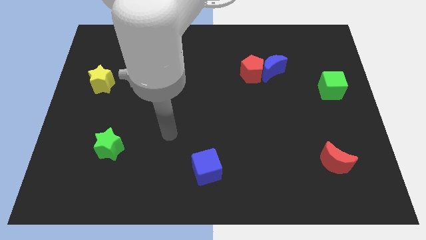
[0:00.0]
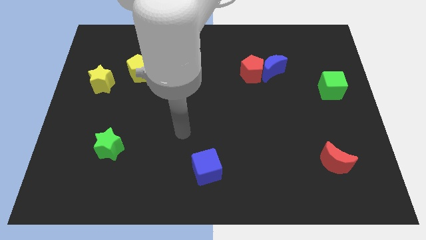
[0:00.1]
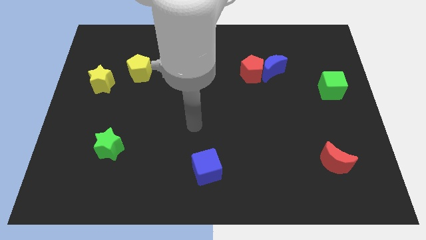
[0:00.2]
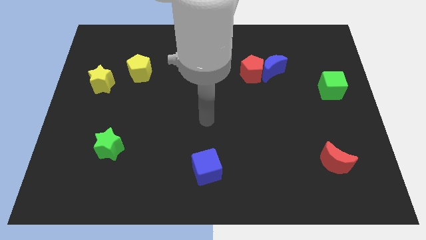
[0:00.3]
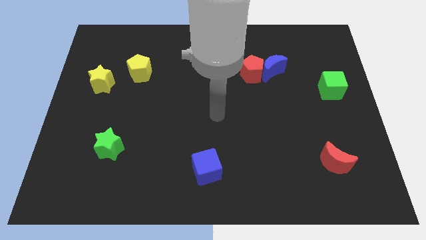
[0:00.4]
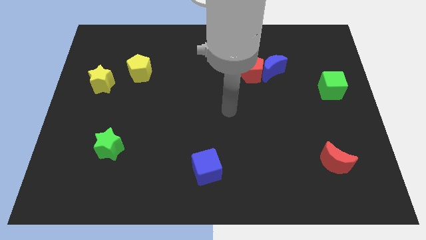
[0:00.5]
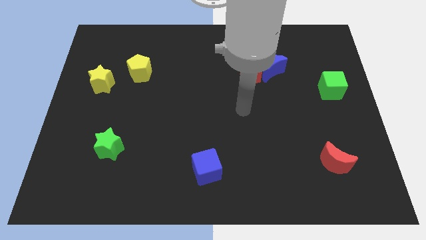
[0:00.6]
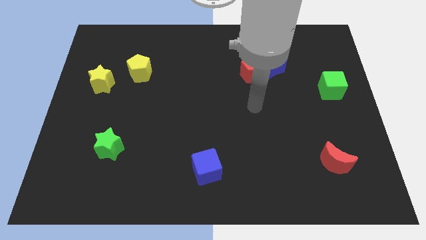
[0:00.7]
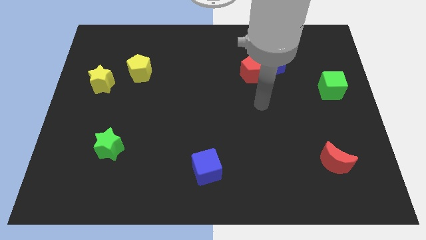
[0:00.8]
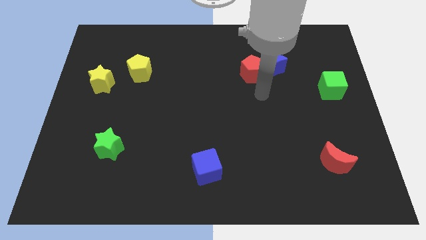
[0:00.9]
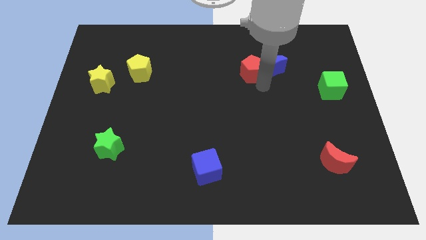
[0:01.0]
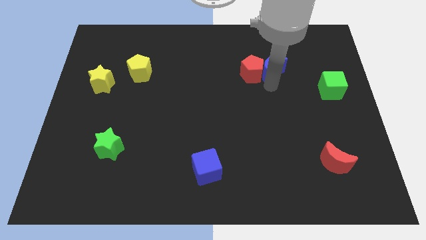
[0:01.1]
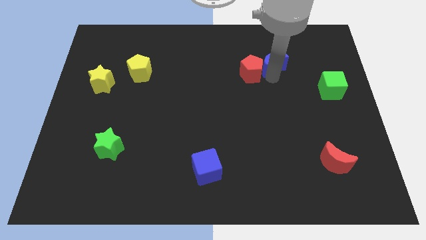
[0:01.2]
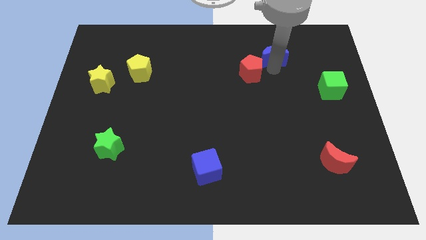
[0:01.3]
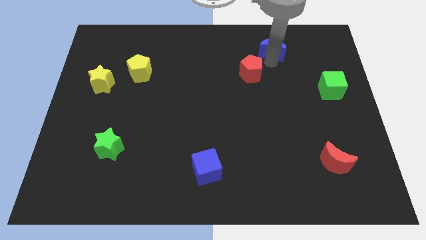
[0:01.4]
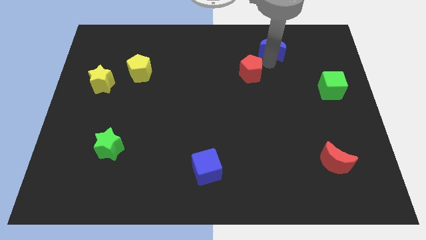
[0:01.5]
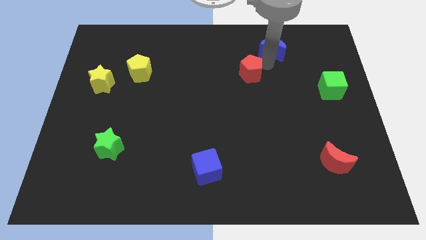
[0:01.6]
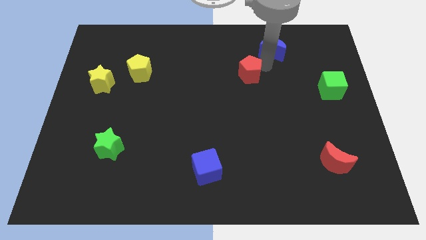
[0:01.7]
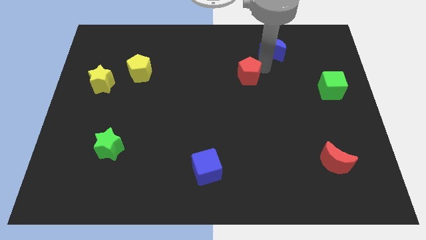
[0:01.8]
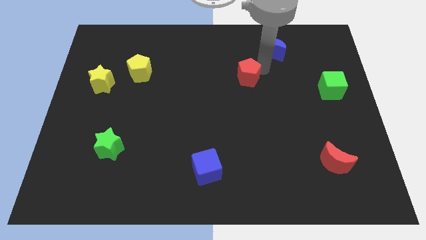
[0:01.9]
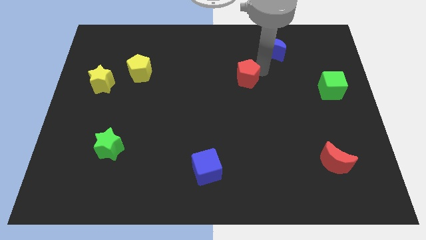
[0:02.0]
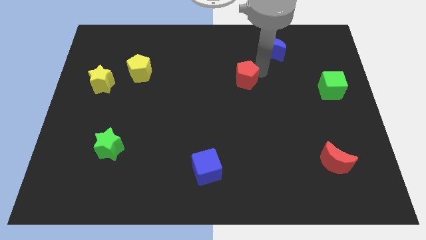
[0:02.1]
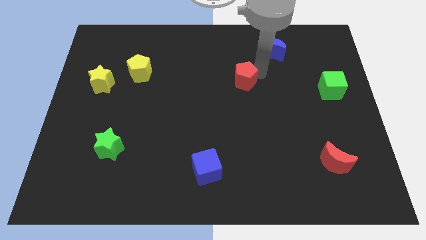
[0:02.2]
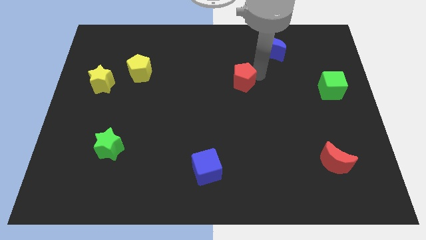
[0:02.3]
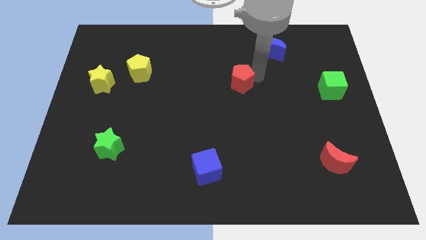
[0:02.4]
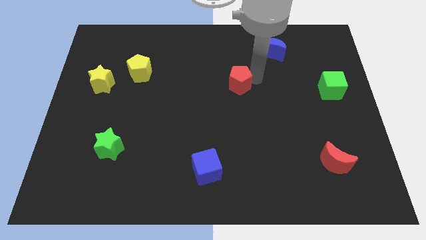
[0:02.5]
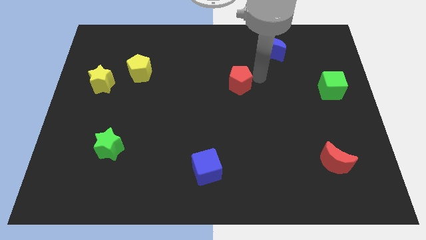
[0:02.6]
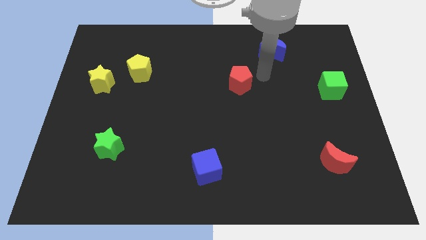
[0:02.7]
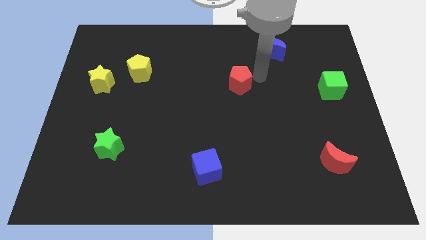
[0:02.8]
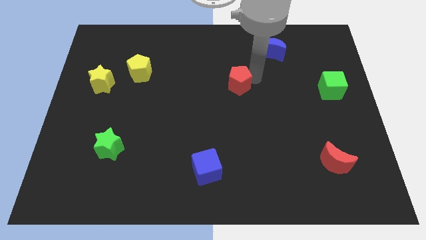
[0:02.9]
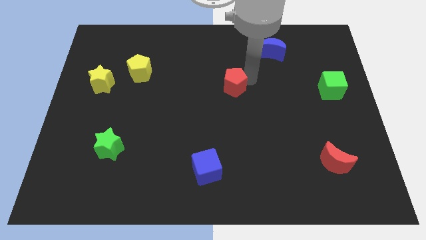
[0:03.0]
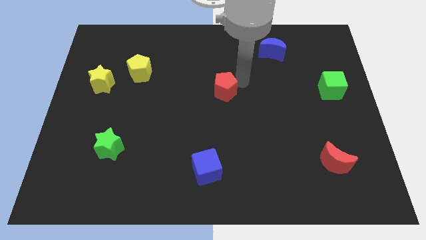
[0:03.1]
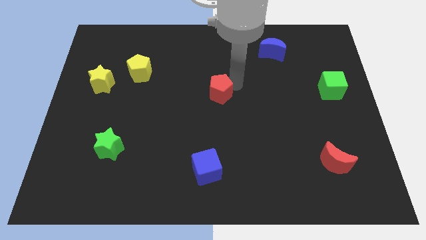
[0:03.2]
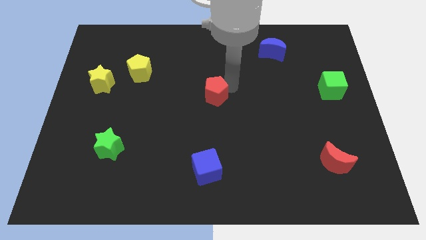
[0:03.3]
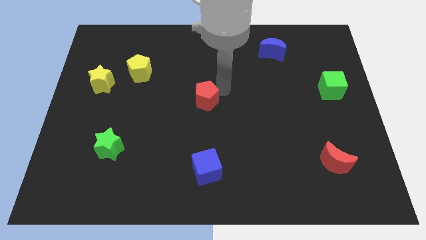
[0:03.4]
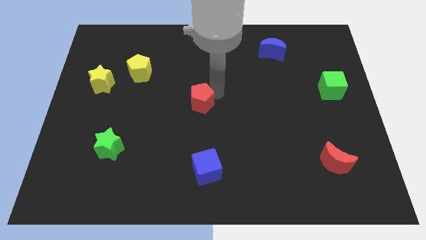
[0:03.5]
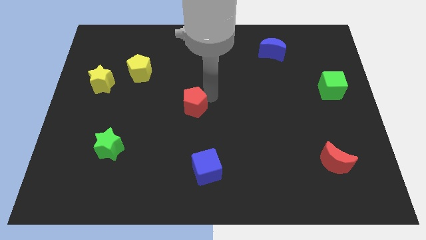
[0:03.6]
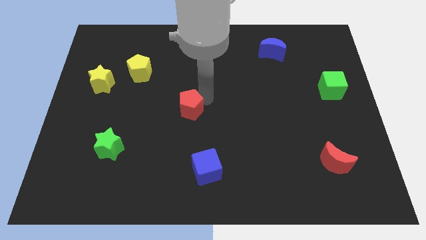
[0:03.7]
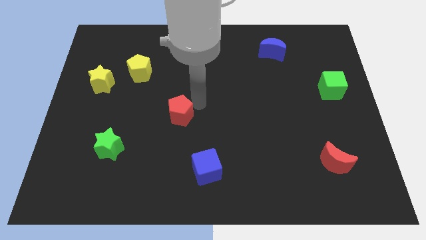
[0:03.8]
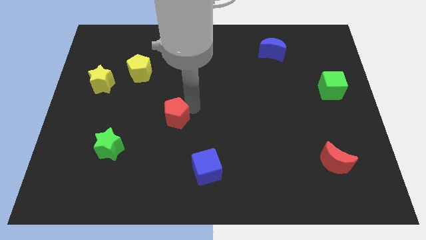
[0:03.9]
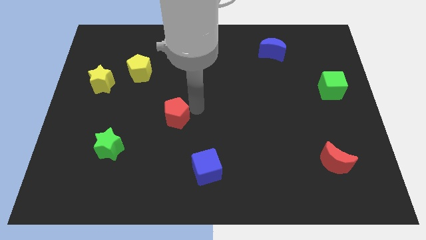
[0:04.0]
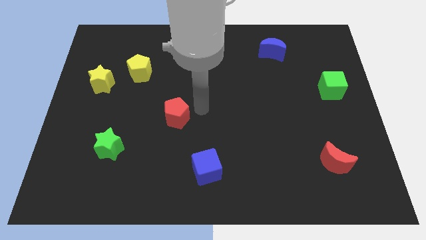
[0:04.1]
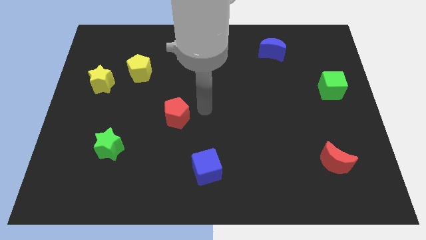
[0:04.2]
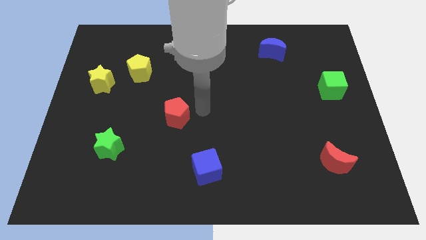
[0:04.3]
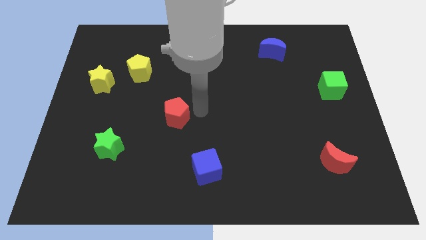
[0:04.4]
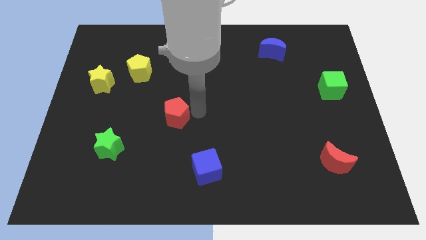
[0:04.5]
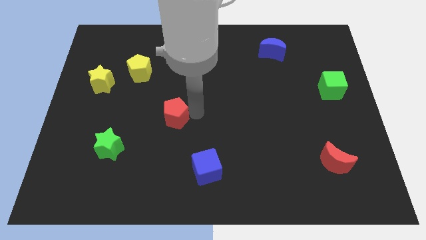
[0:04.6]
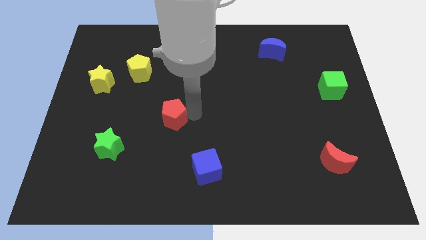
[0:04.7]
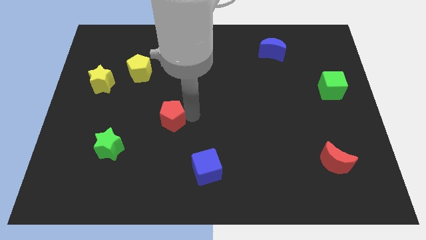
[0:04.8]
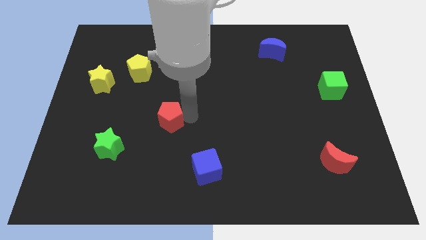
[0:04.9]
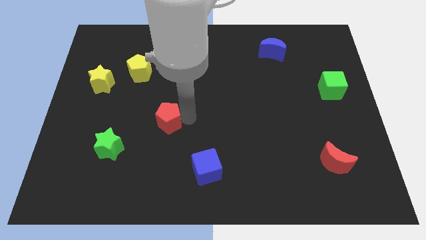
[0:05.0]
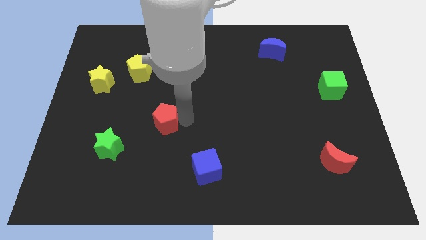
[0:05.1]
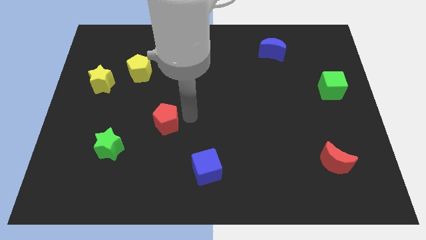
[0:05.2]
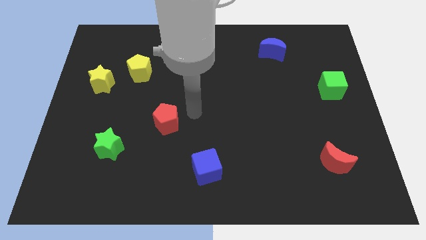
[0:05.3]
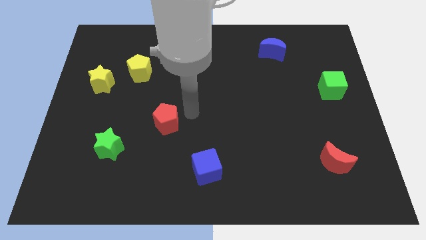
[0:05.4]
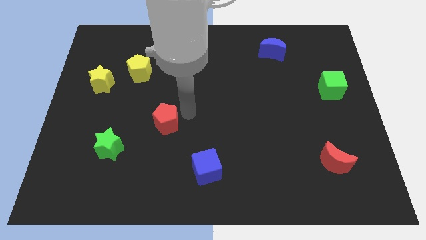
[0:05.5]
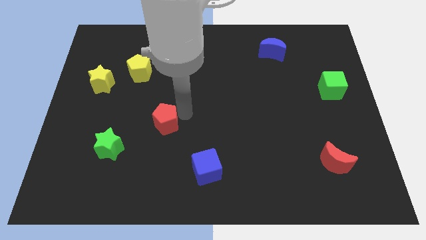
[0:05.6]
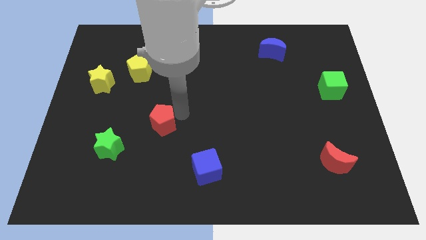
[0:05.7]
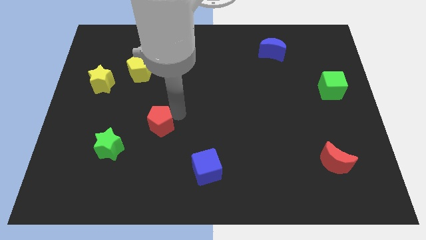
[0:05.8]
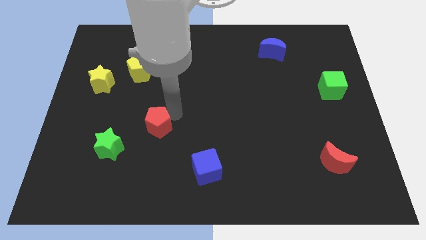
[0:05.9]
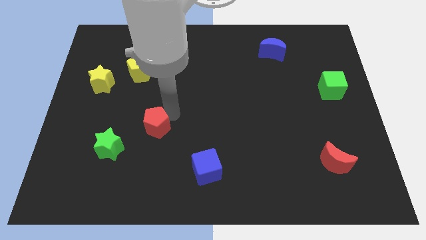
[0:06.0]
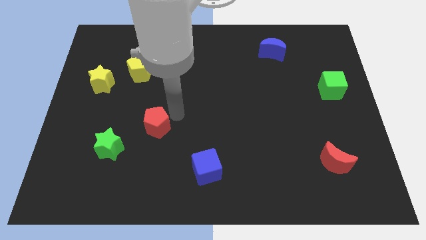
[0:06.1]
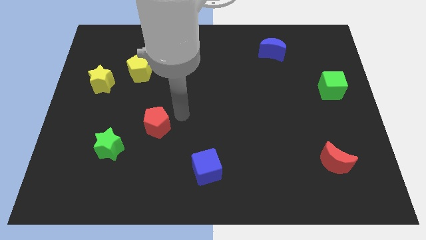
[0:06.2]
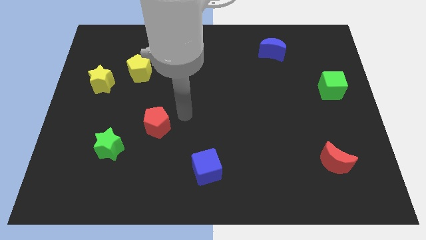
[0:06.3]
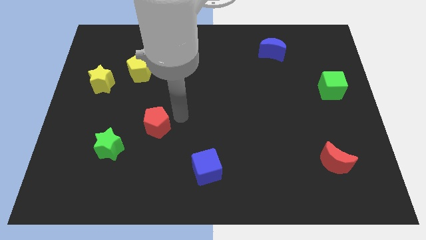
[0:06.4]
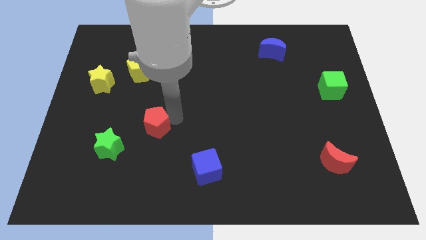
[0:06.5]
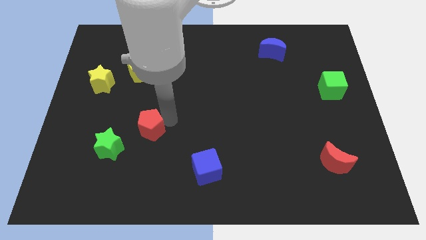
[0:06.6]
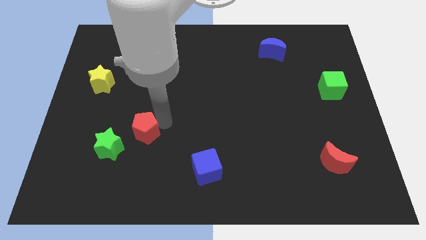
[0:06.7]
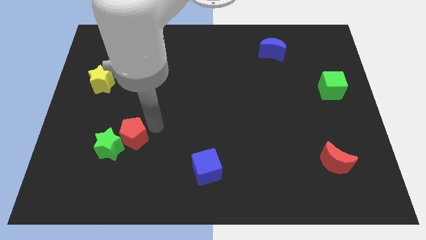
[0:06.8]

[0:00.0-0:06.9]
move the red pentagon next to the green star
